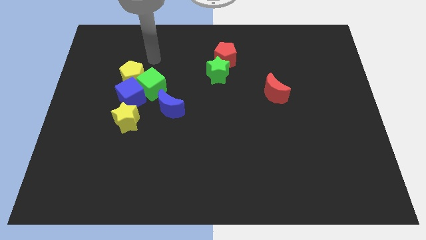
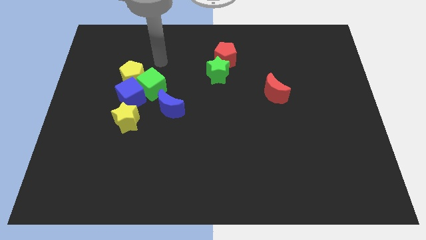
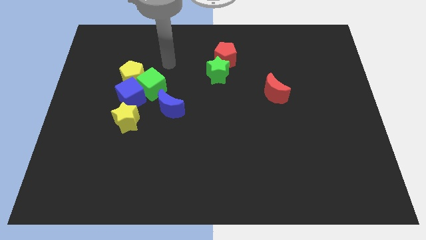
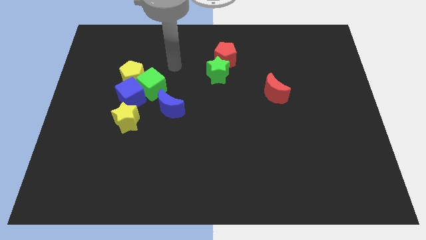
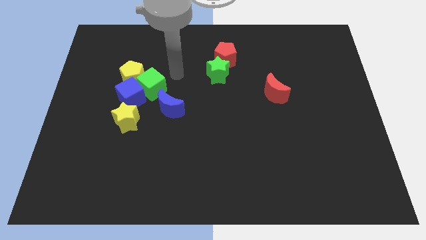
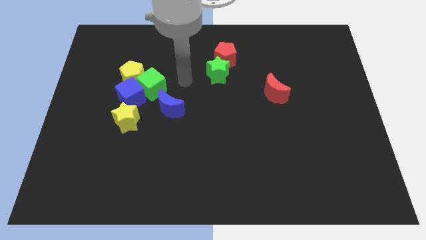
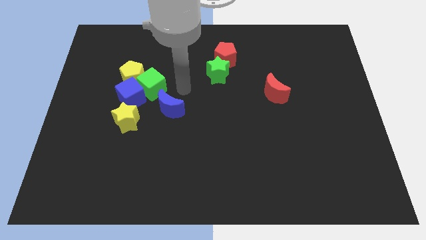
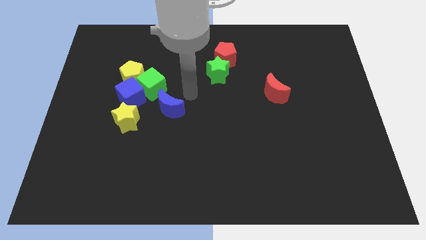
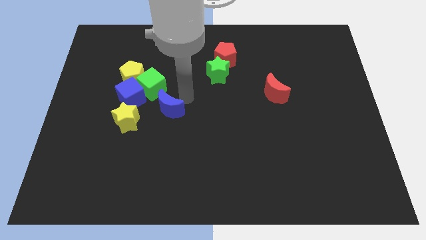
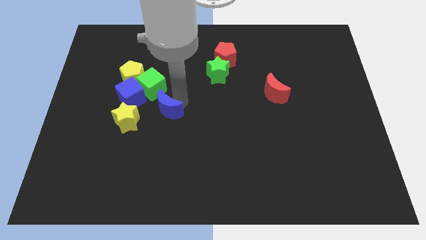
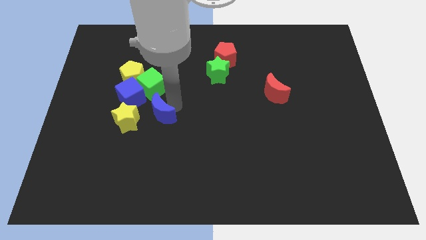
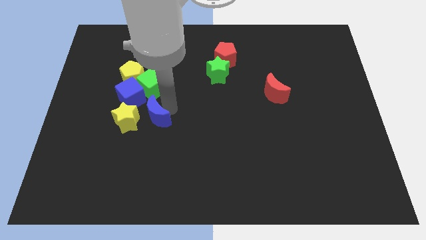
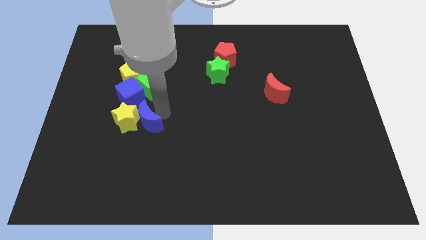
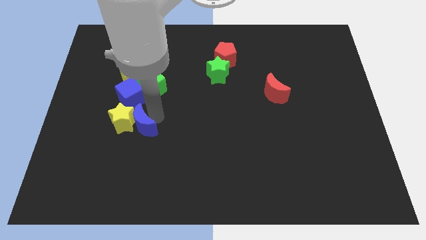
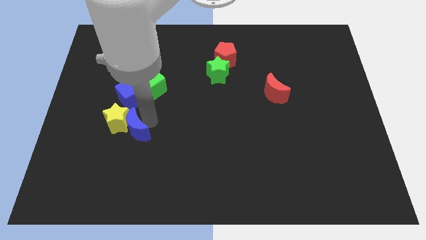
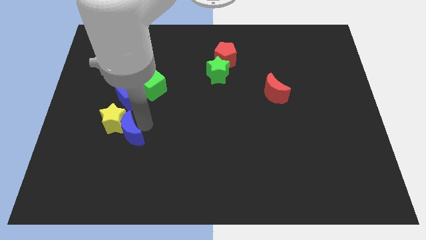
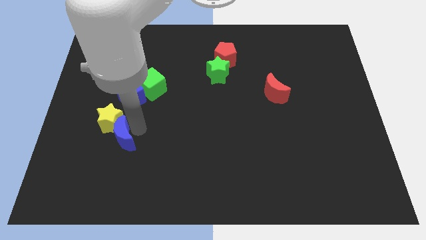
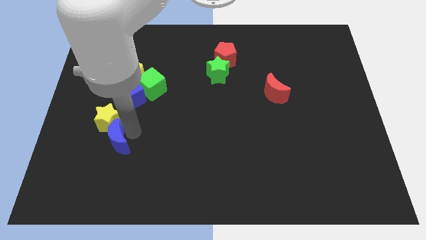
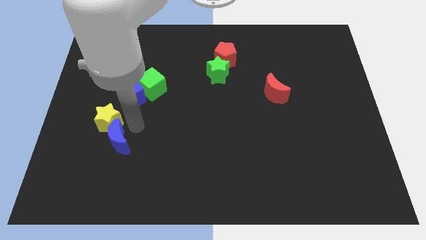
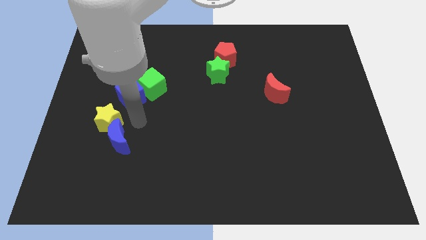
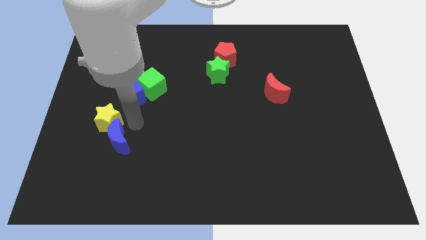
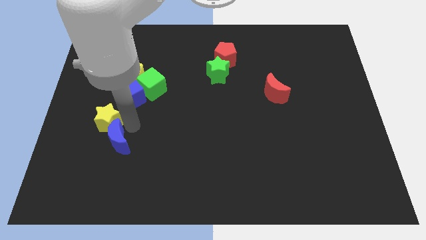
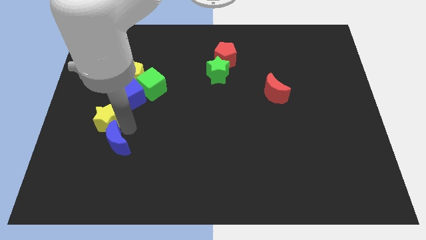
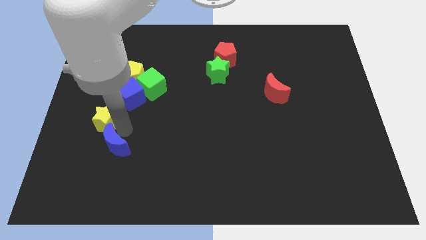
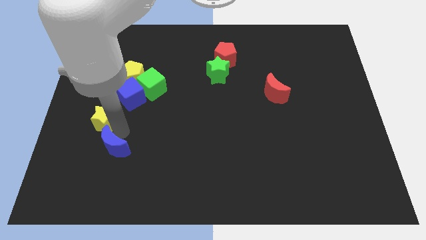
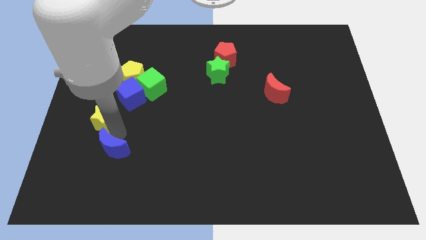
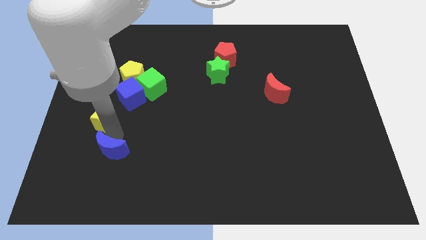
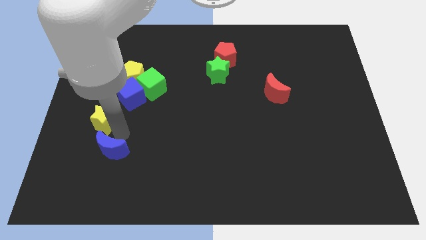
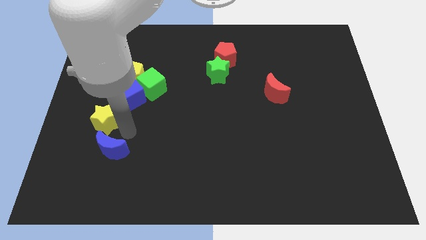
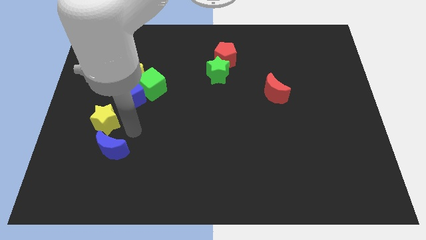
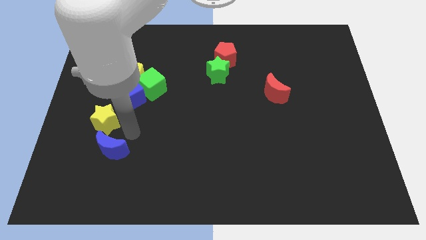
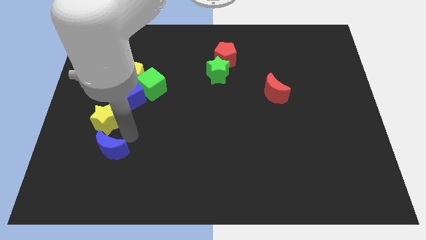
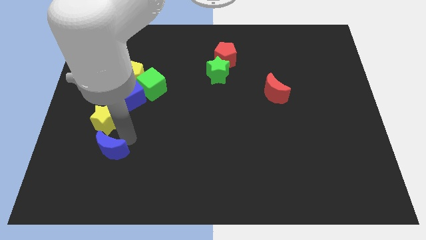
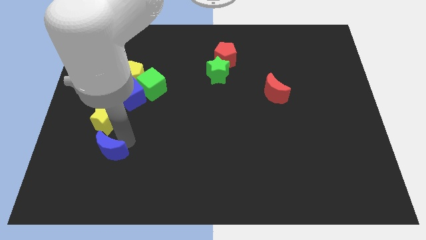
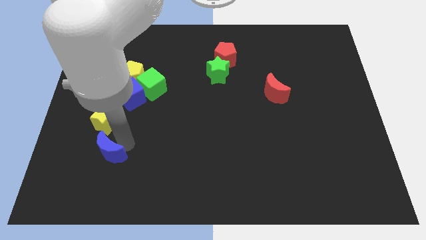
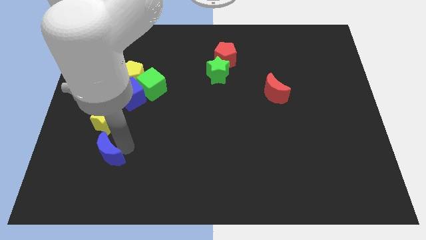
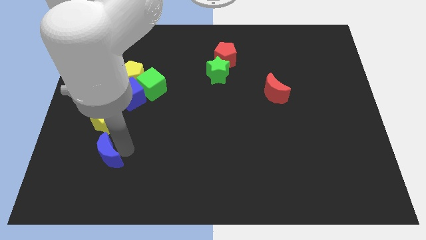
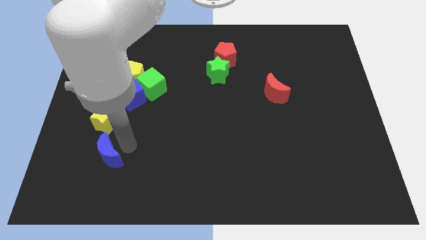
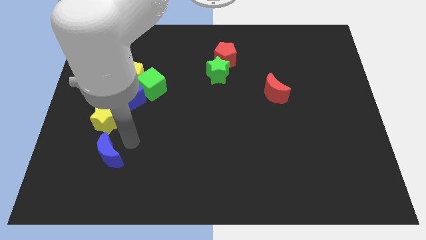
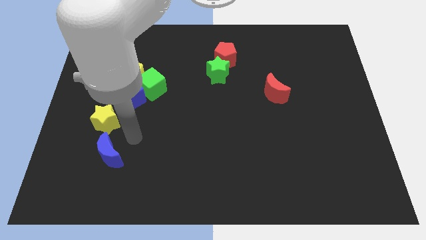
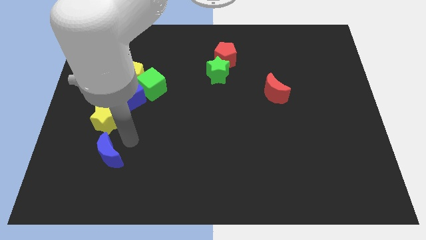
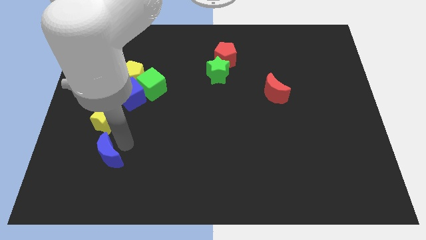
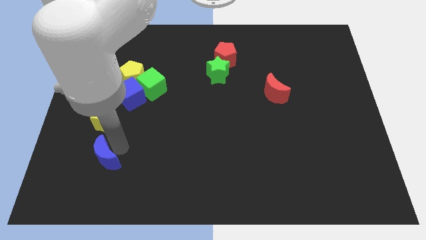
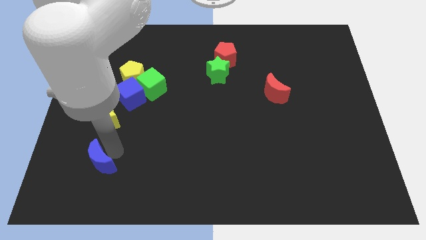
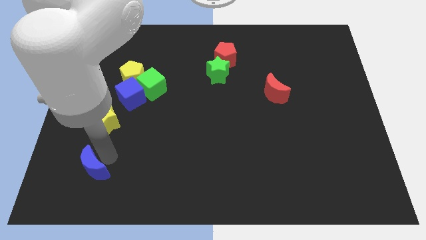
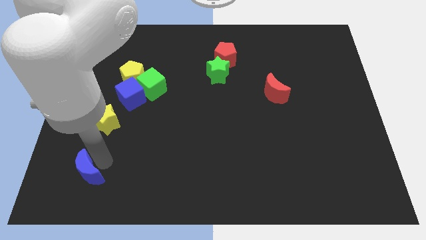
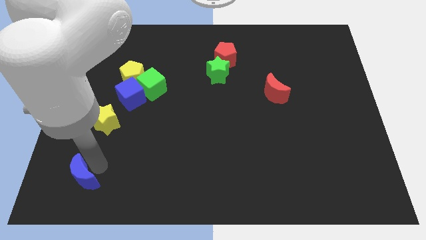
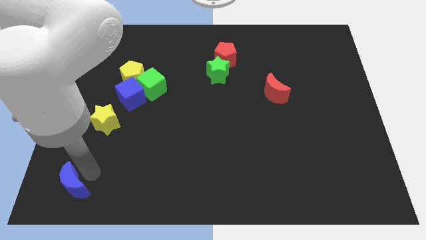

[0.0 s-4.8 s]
push the blue moon to the bottom left corner

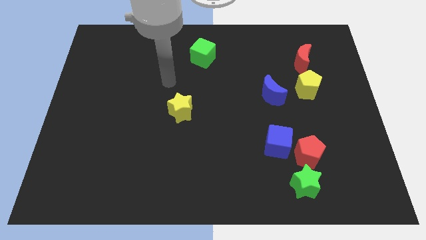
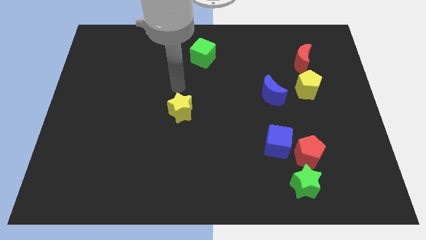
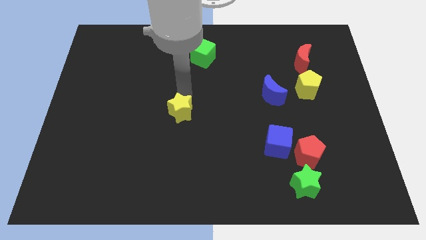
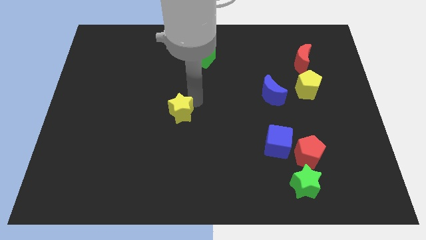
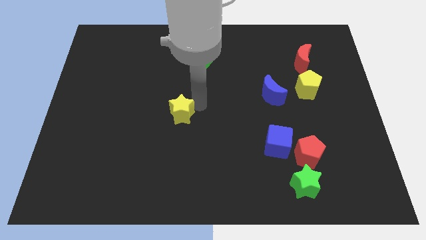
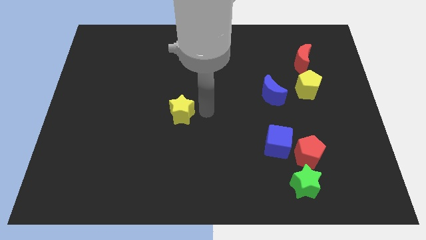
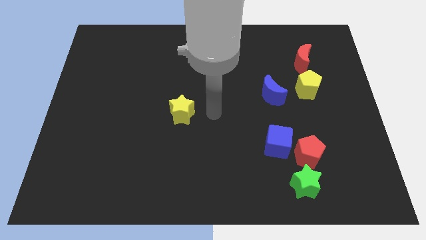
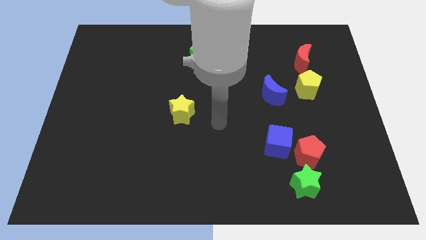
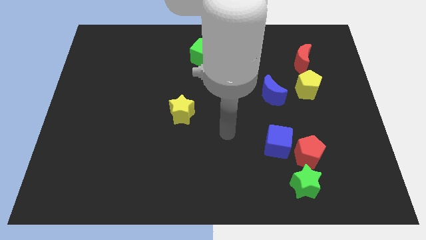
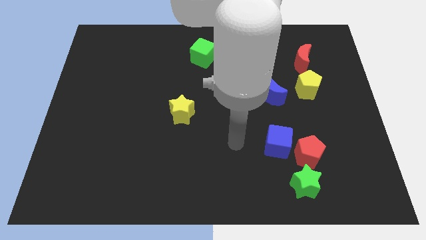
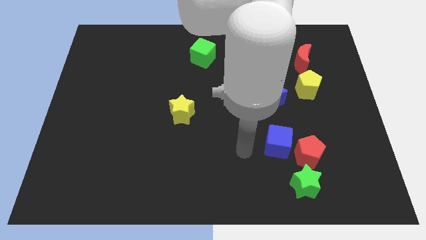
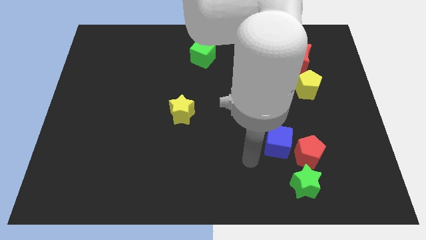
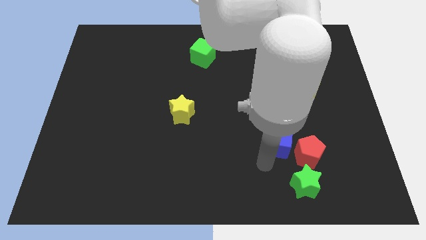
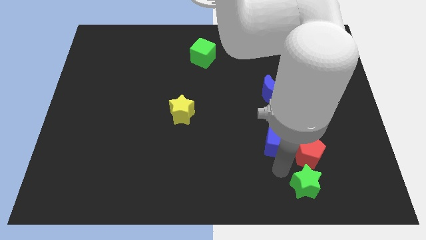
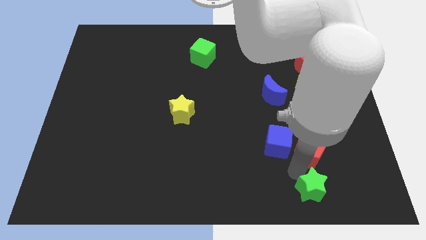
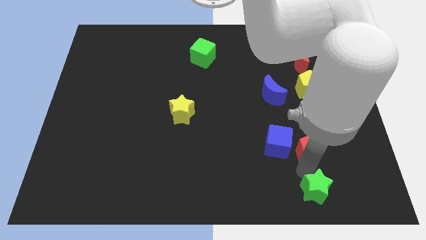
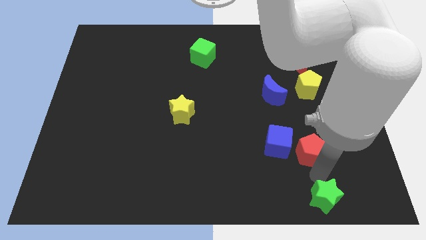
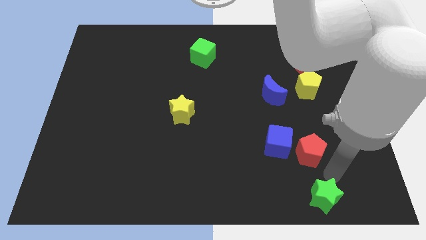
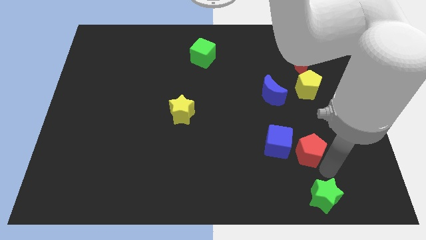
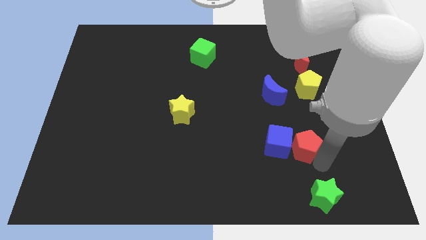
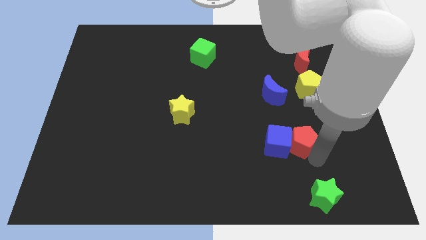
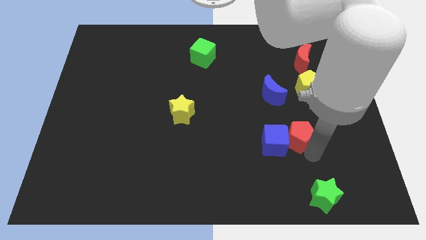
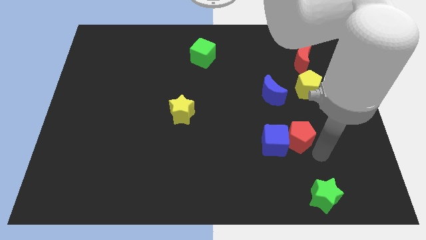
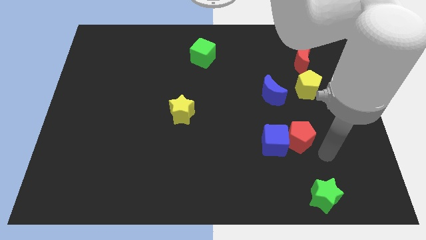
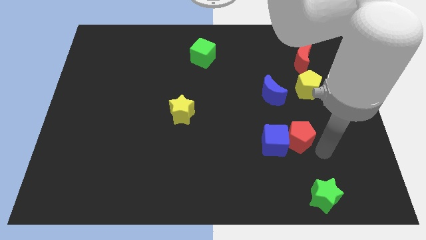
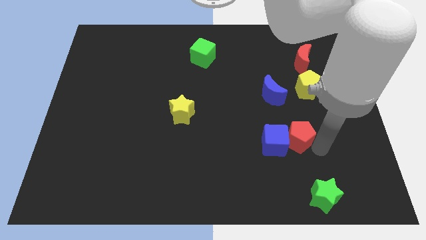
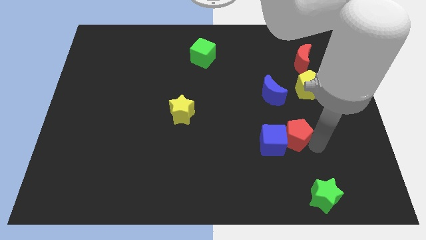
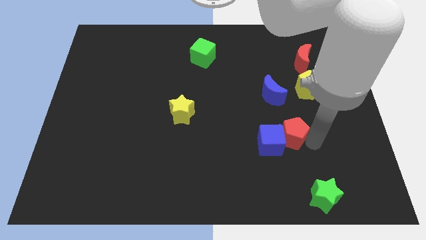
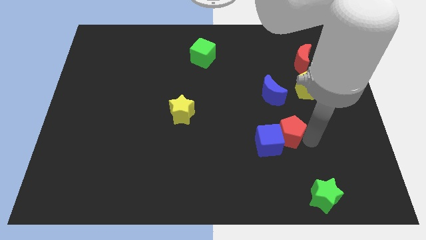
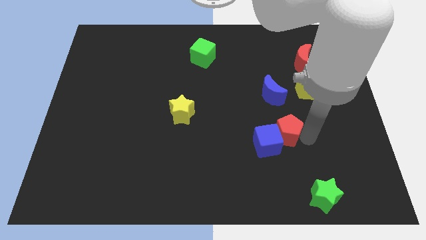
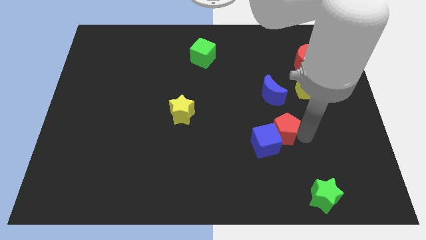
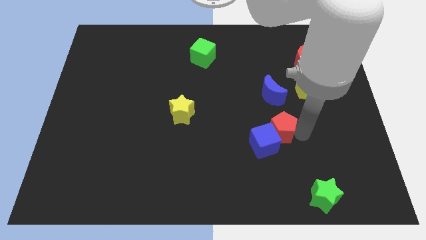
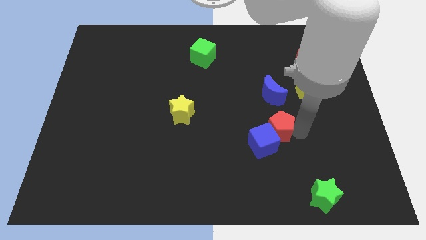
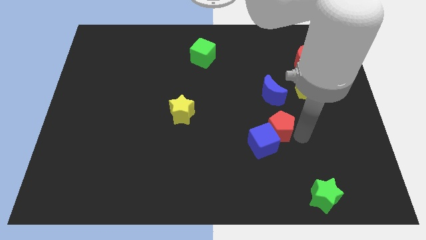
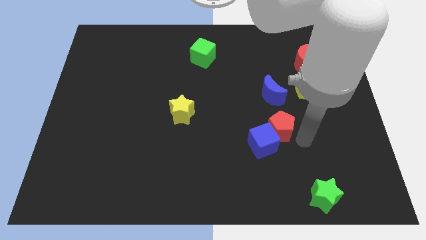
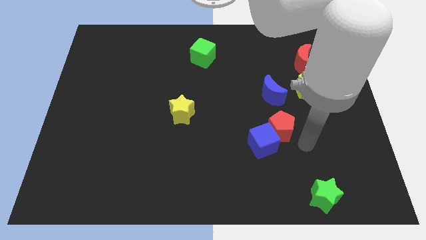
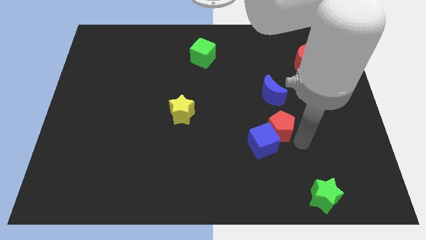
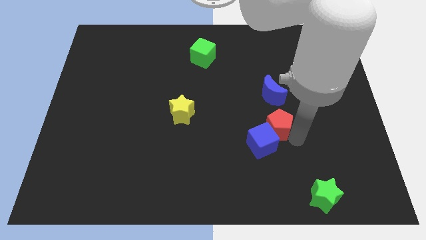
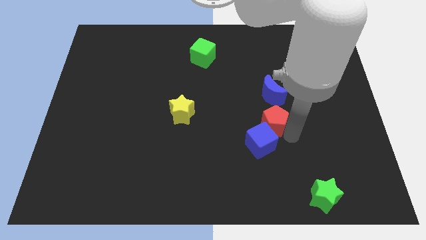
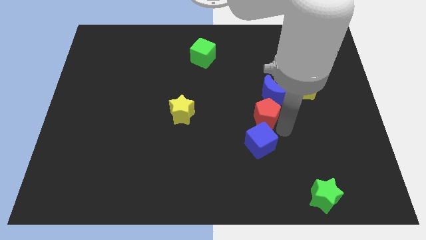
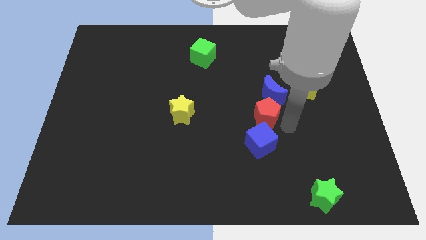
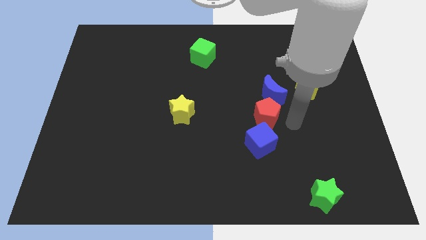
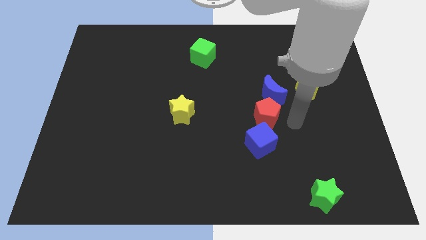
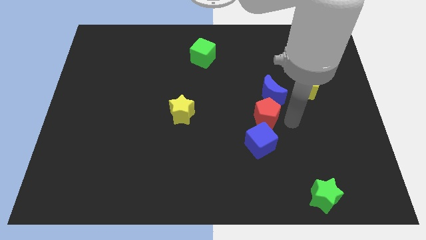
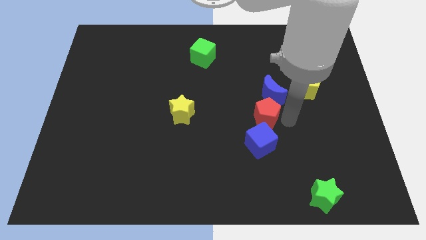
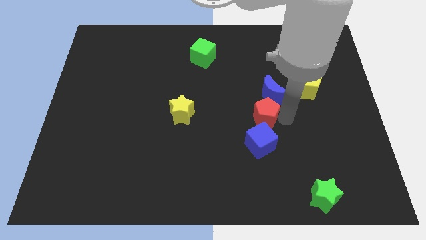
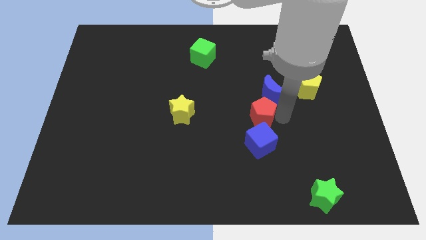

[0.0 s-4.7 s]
push the red pentagon to the center
